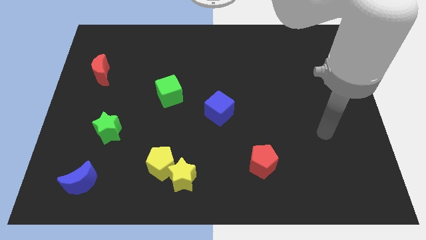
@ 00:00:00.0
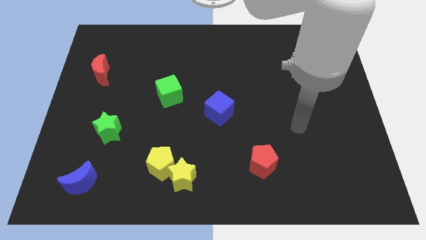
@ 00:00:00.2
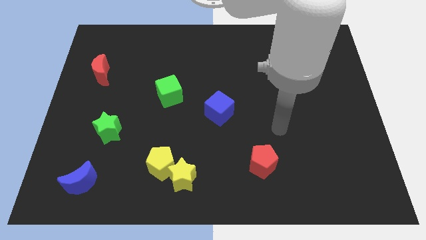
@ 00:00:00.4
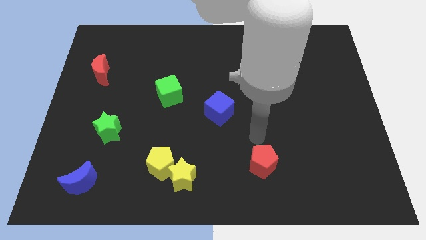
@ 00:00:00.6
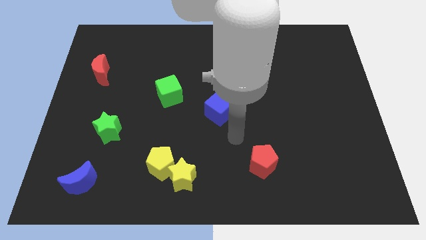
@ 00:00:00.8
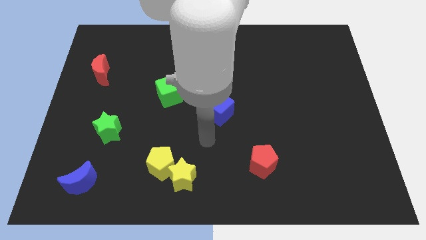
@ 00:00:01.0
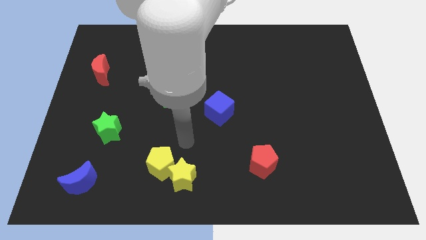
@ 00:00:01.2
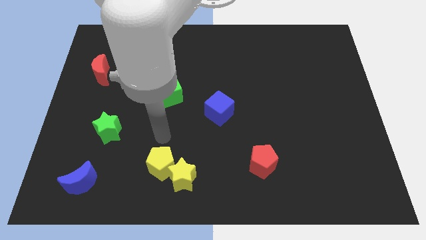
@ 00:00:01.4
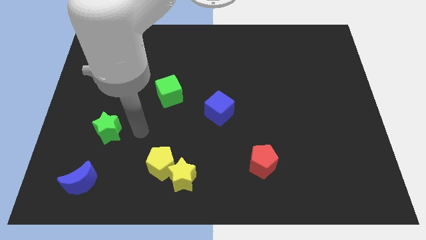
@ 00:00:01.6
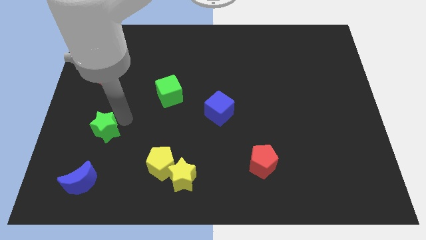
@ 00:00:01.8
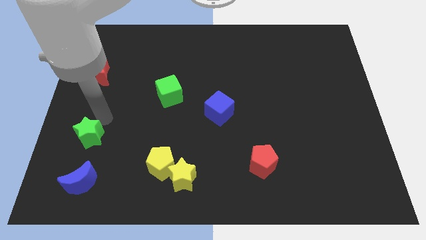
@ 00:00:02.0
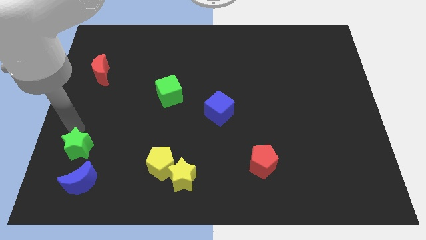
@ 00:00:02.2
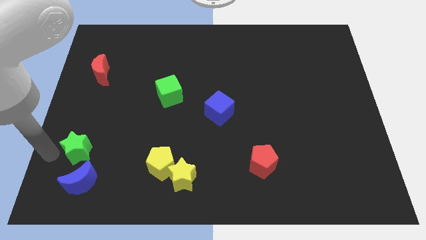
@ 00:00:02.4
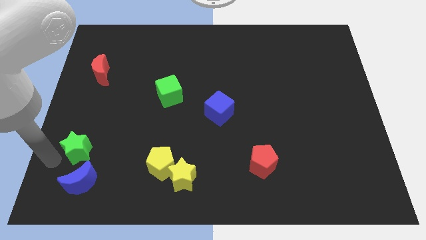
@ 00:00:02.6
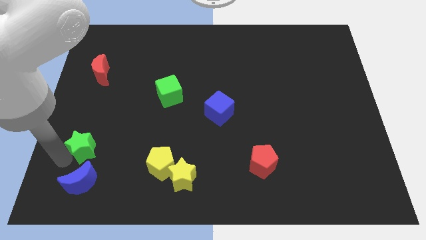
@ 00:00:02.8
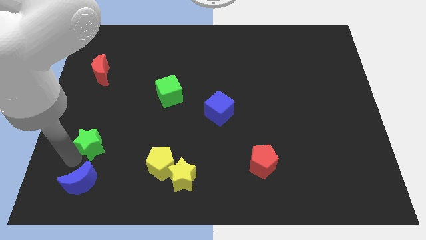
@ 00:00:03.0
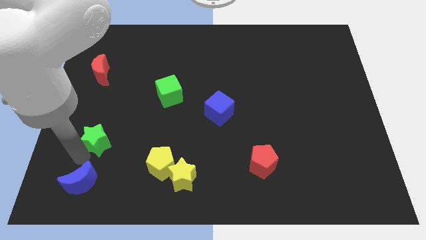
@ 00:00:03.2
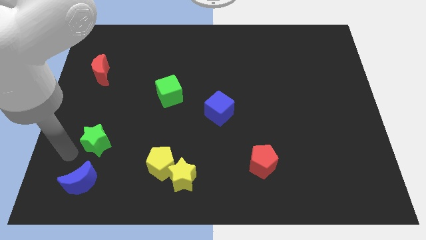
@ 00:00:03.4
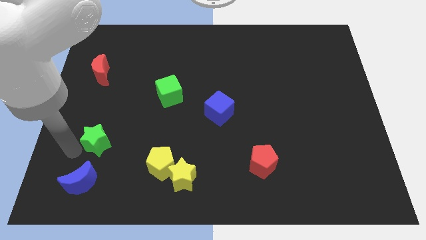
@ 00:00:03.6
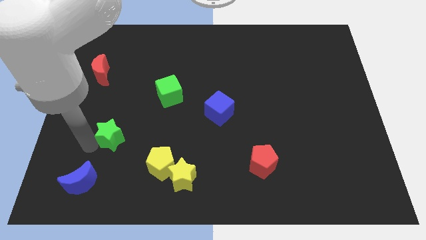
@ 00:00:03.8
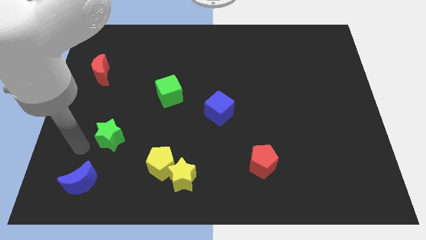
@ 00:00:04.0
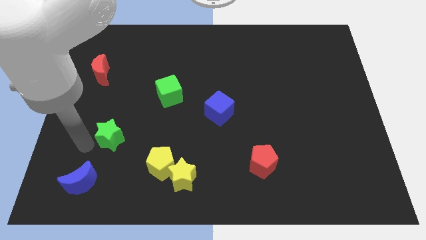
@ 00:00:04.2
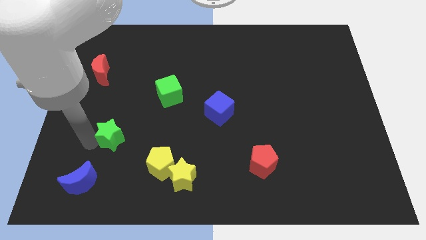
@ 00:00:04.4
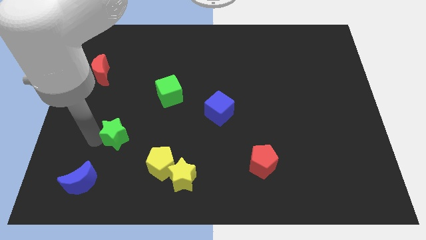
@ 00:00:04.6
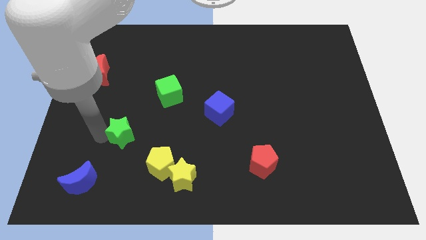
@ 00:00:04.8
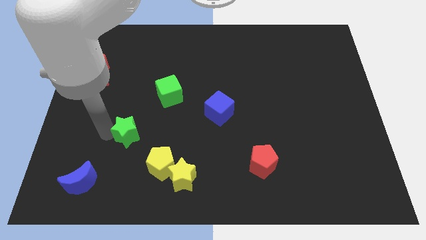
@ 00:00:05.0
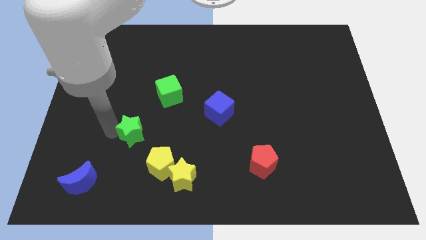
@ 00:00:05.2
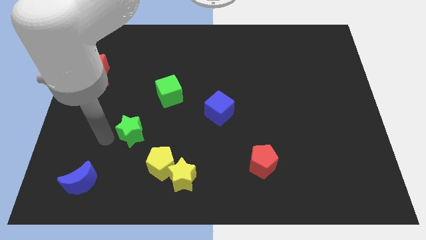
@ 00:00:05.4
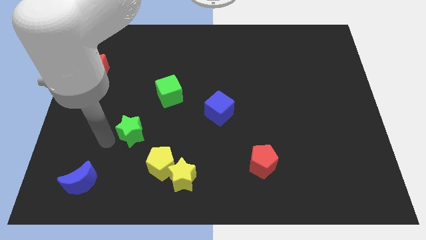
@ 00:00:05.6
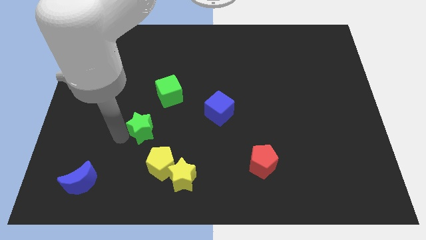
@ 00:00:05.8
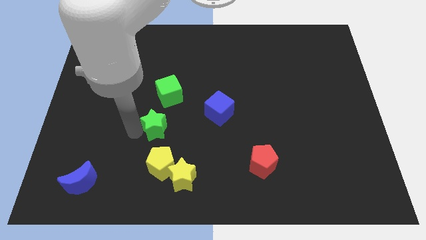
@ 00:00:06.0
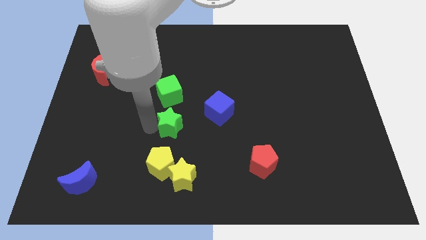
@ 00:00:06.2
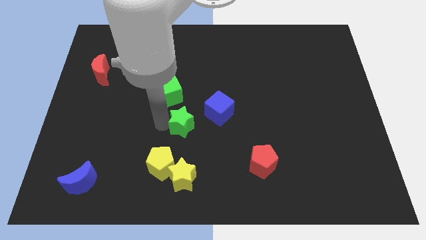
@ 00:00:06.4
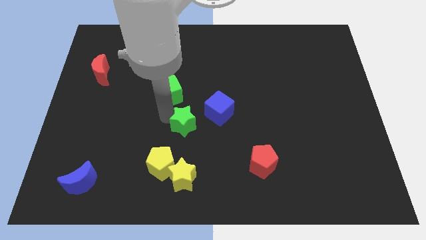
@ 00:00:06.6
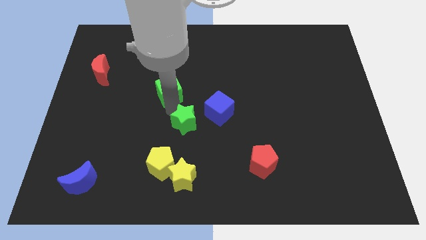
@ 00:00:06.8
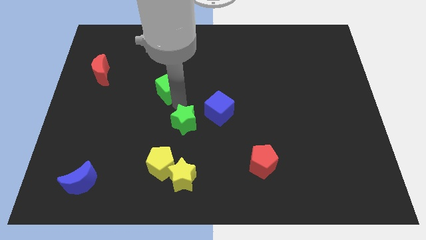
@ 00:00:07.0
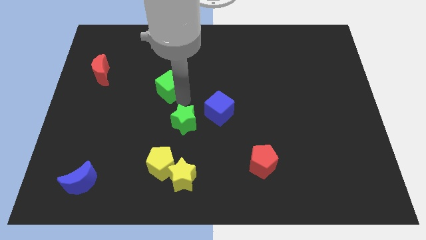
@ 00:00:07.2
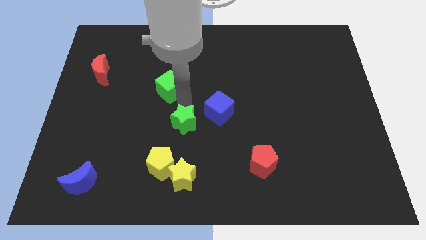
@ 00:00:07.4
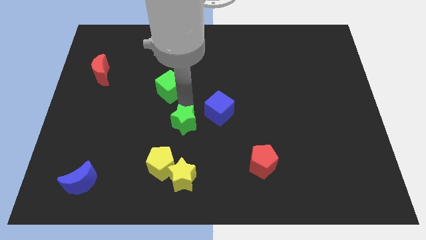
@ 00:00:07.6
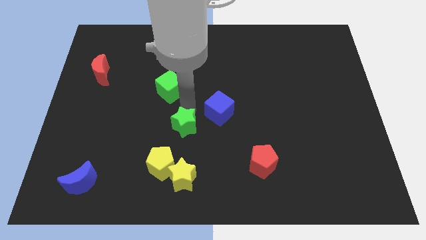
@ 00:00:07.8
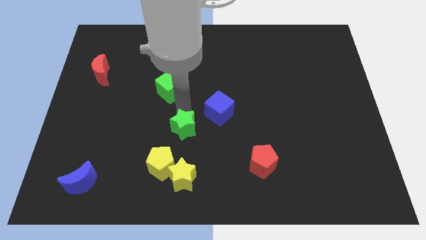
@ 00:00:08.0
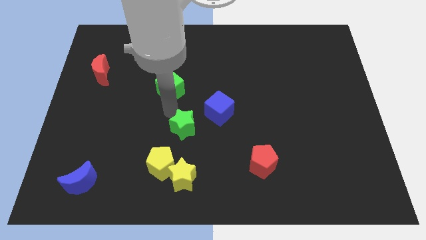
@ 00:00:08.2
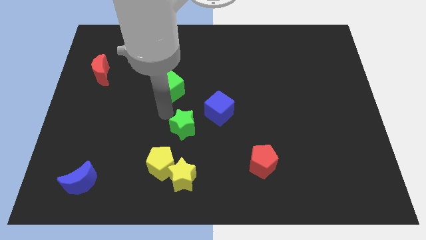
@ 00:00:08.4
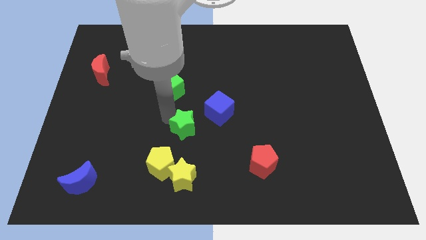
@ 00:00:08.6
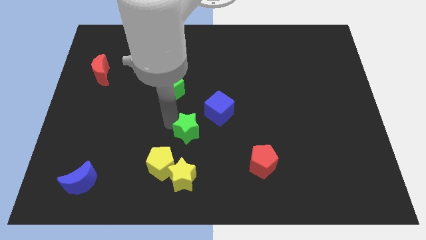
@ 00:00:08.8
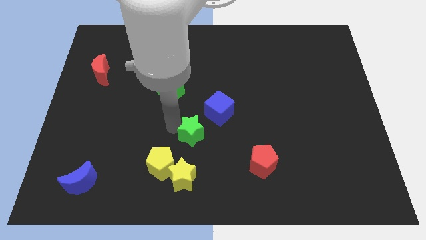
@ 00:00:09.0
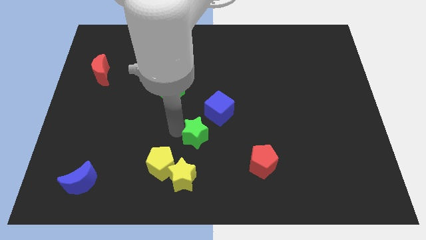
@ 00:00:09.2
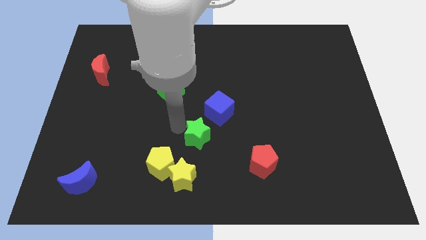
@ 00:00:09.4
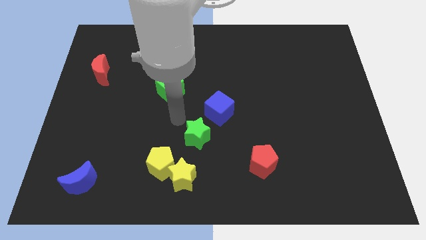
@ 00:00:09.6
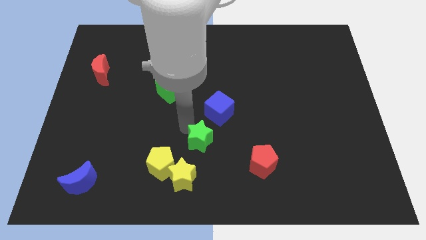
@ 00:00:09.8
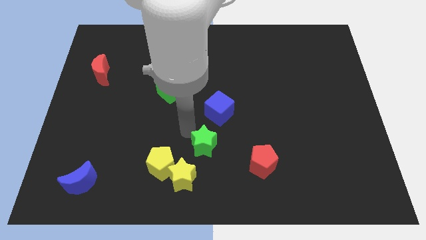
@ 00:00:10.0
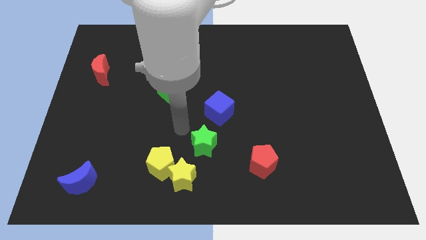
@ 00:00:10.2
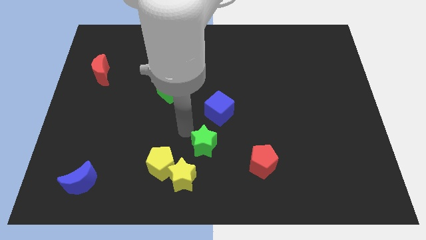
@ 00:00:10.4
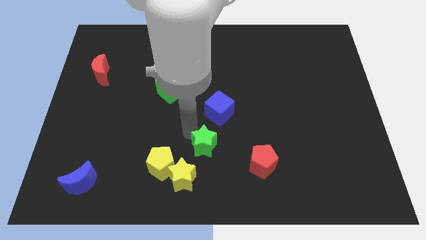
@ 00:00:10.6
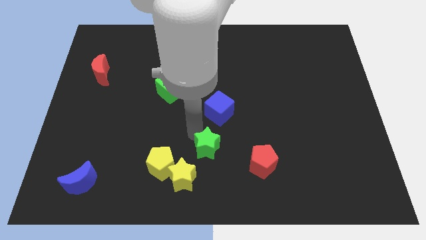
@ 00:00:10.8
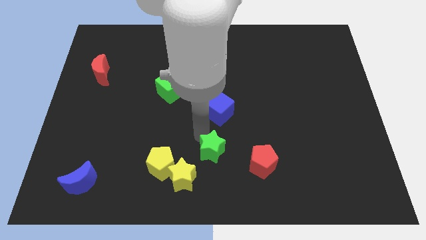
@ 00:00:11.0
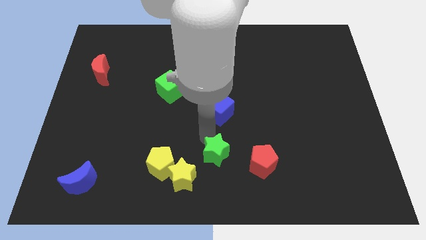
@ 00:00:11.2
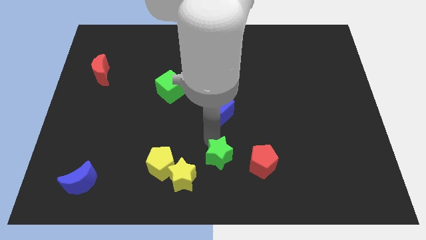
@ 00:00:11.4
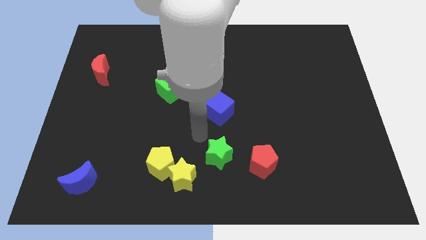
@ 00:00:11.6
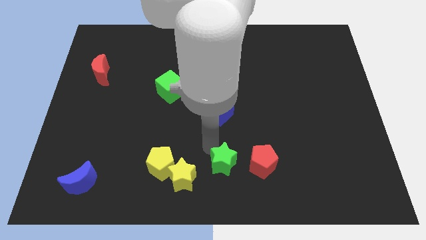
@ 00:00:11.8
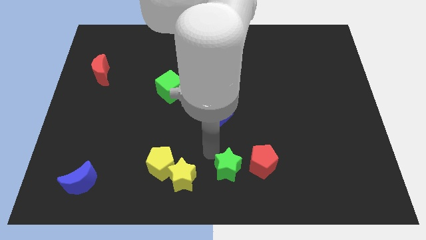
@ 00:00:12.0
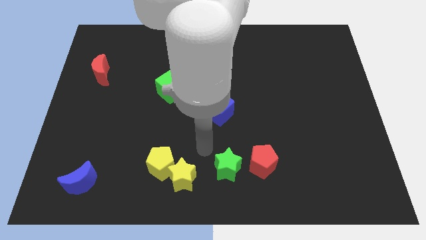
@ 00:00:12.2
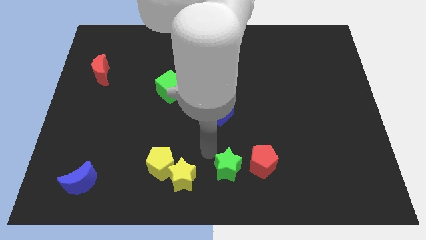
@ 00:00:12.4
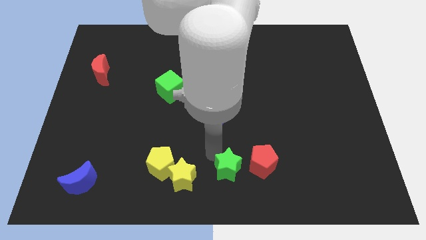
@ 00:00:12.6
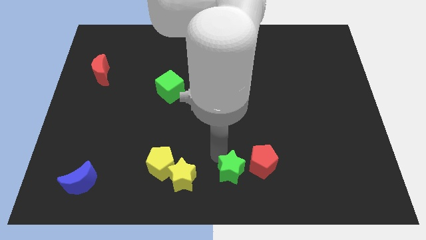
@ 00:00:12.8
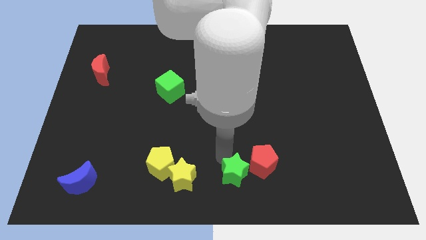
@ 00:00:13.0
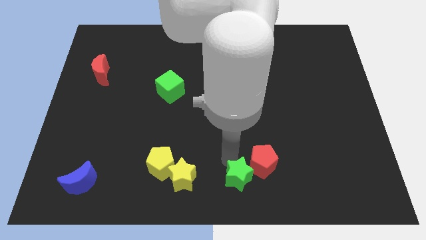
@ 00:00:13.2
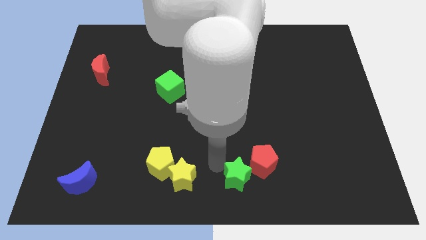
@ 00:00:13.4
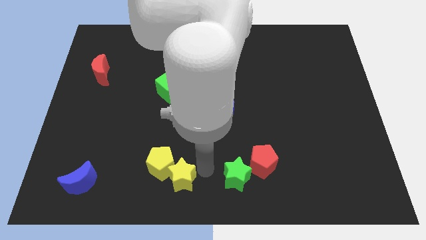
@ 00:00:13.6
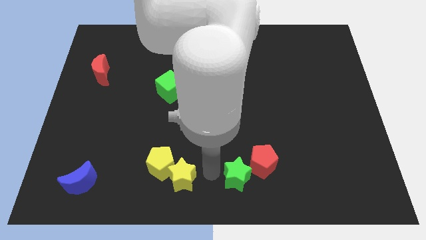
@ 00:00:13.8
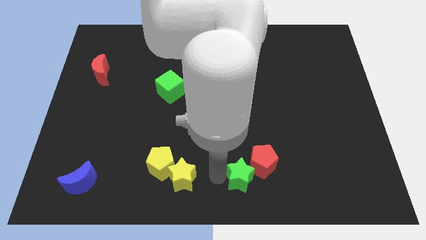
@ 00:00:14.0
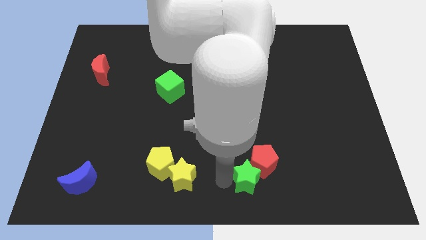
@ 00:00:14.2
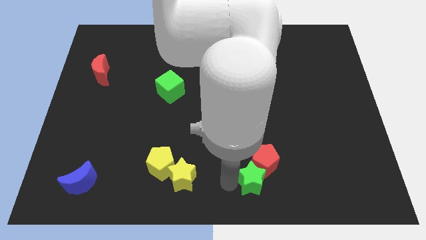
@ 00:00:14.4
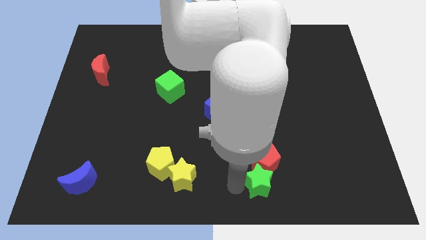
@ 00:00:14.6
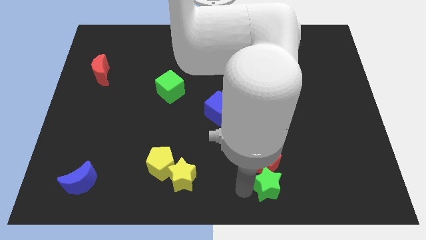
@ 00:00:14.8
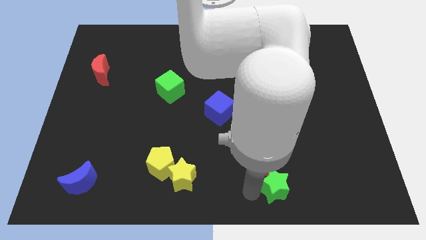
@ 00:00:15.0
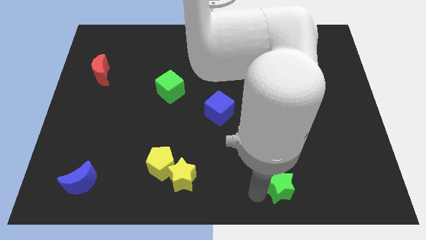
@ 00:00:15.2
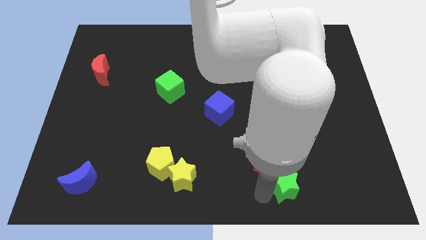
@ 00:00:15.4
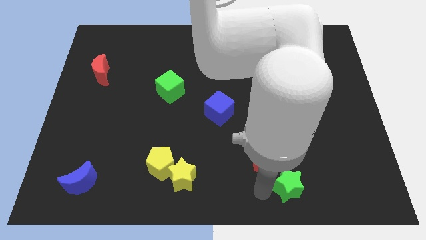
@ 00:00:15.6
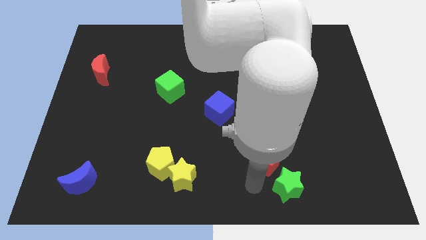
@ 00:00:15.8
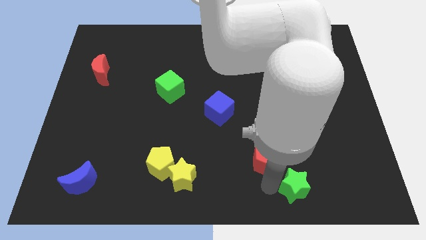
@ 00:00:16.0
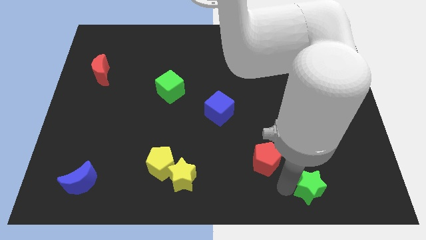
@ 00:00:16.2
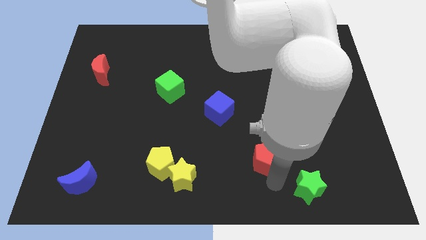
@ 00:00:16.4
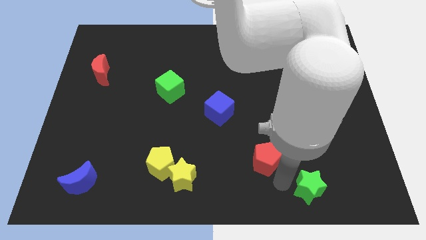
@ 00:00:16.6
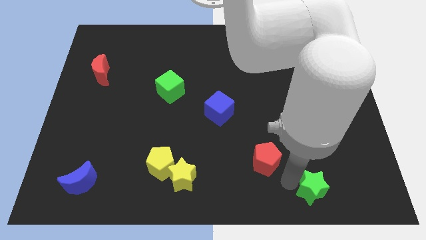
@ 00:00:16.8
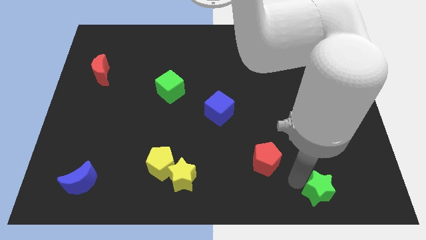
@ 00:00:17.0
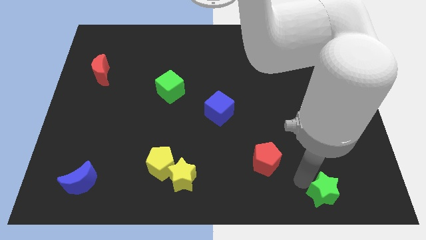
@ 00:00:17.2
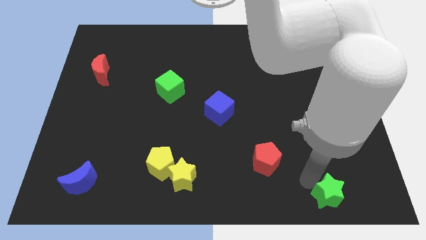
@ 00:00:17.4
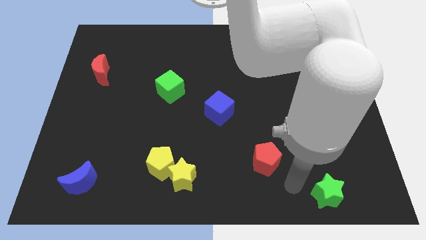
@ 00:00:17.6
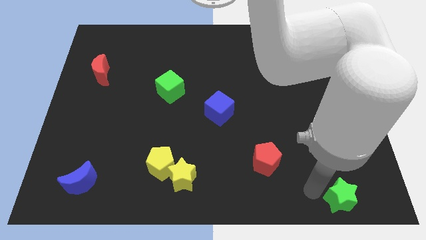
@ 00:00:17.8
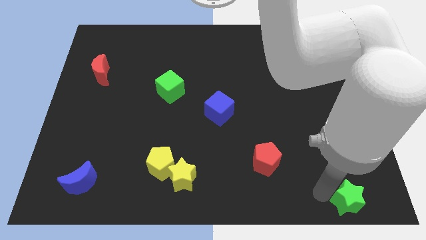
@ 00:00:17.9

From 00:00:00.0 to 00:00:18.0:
put the green star to the bottom right corner
